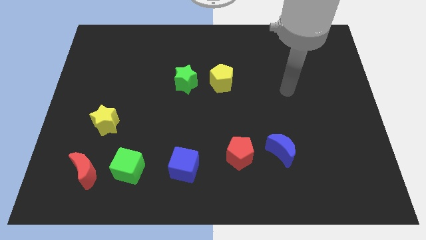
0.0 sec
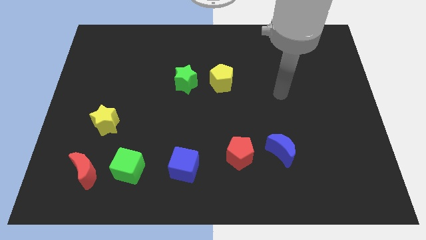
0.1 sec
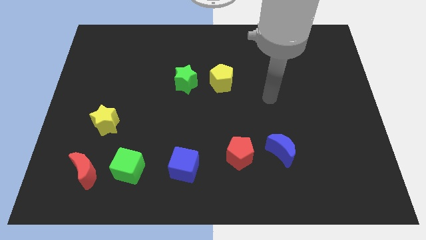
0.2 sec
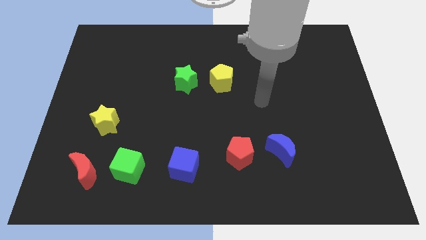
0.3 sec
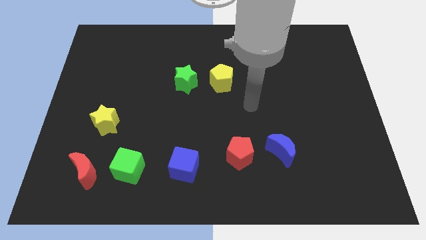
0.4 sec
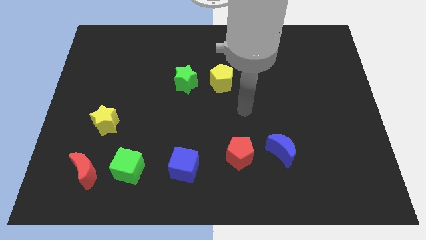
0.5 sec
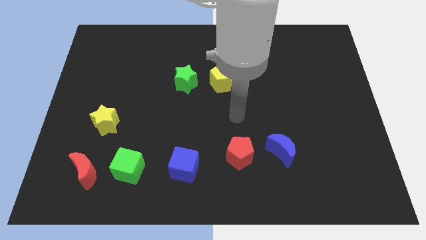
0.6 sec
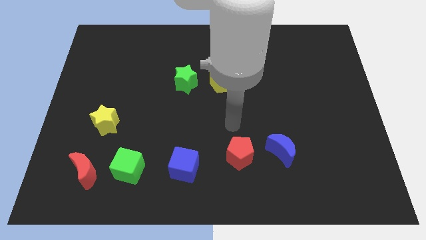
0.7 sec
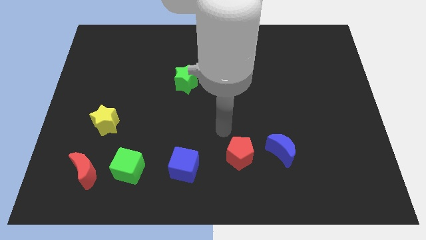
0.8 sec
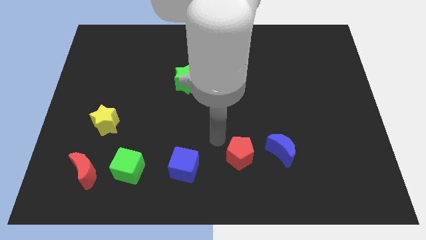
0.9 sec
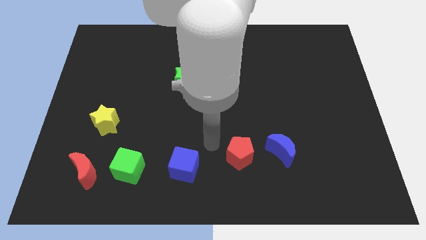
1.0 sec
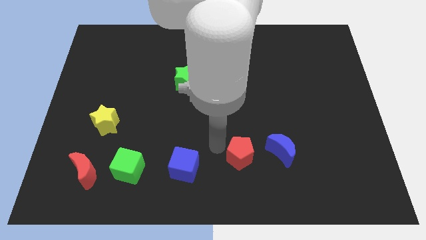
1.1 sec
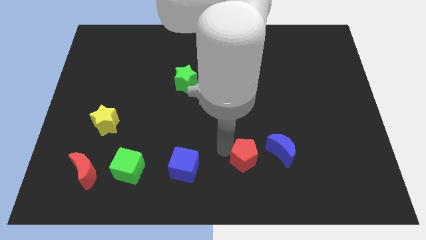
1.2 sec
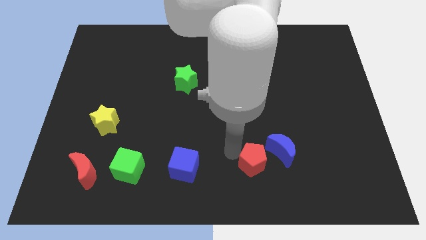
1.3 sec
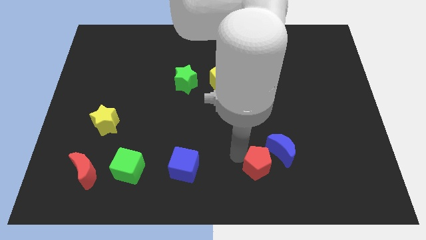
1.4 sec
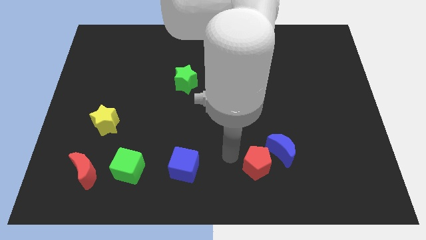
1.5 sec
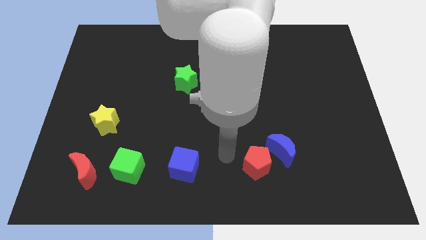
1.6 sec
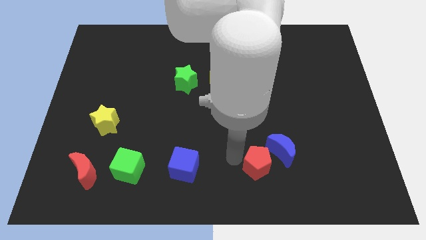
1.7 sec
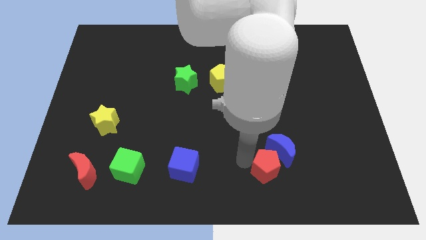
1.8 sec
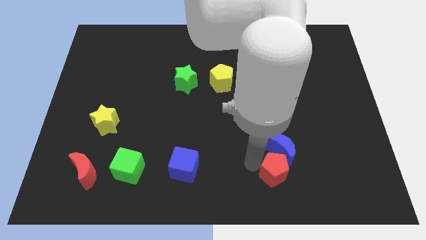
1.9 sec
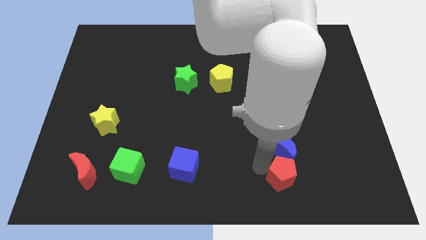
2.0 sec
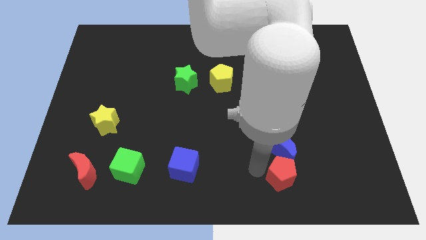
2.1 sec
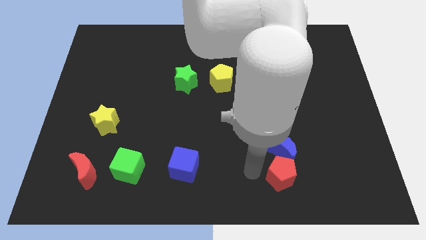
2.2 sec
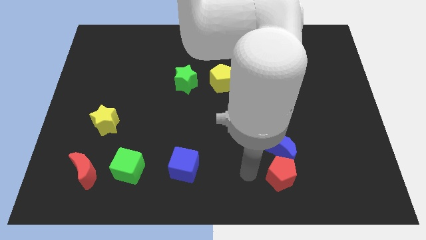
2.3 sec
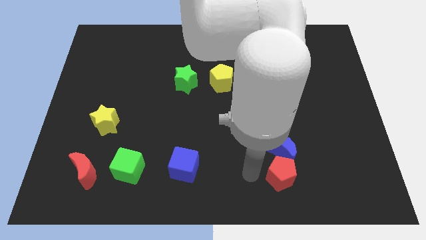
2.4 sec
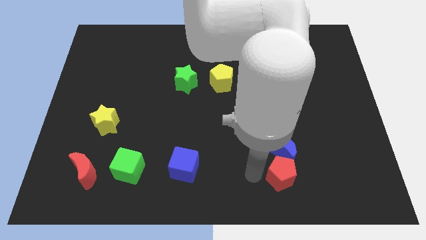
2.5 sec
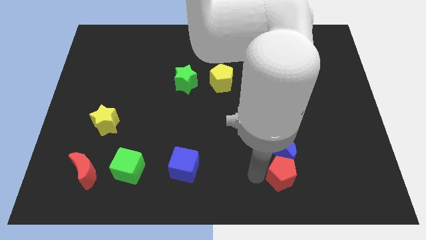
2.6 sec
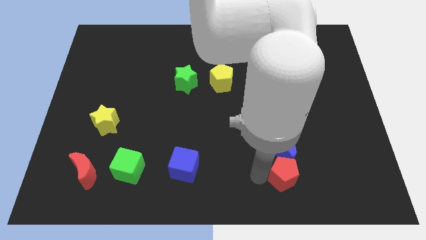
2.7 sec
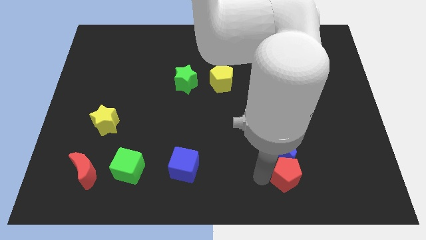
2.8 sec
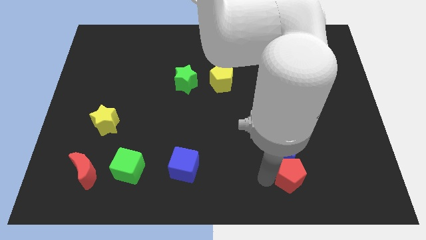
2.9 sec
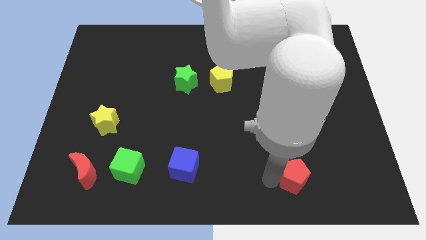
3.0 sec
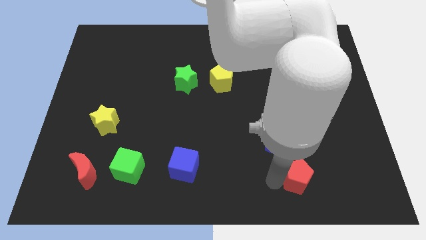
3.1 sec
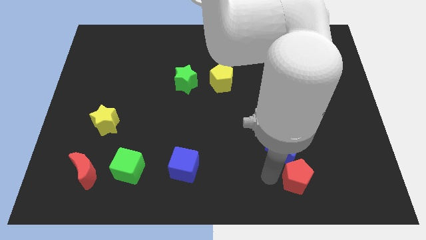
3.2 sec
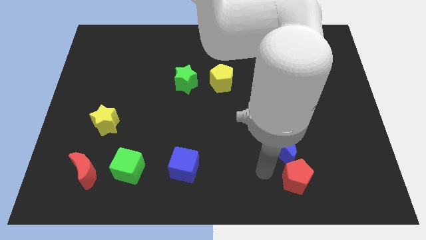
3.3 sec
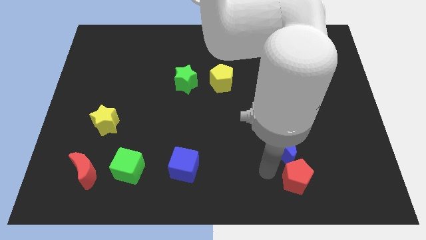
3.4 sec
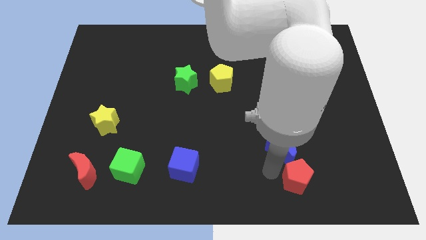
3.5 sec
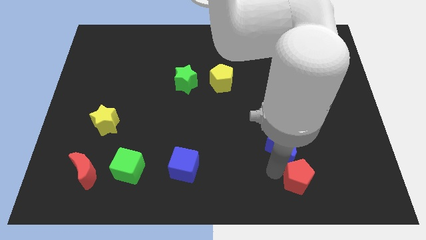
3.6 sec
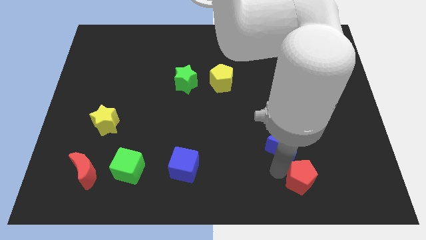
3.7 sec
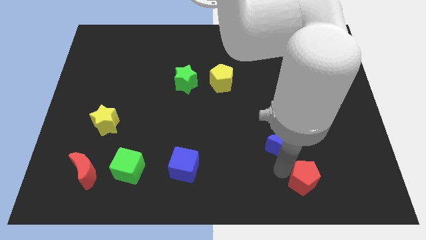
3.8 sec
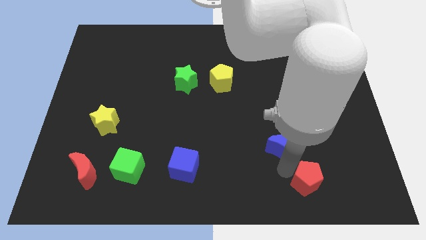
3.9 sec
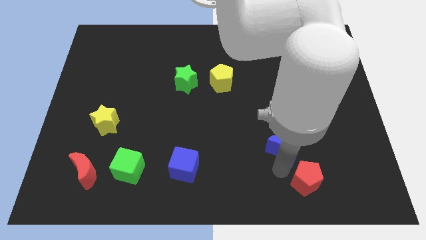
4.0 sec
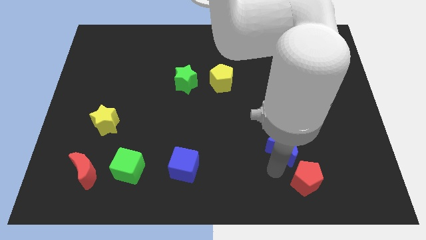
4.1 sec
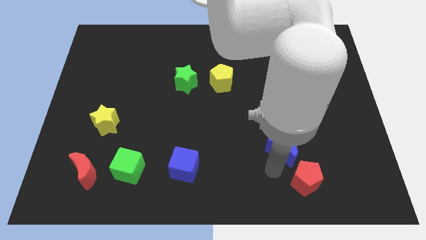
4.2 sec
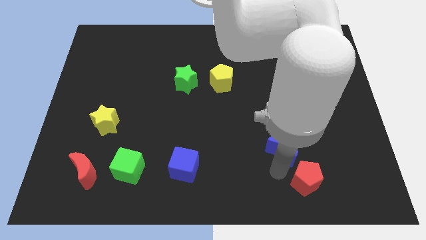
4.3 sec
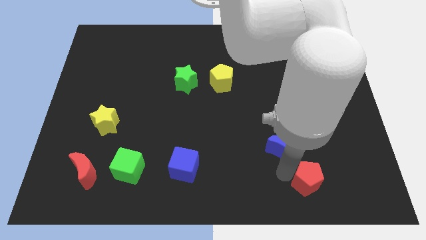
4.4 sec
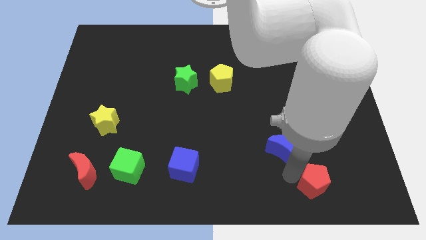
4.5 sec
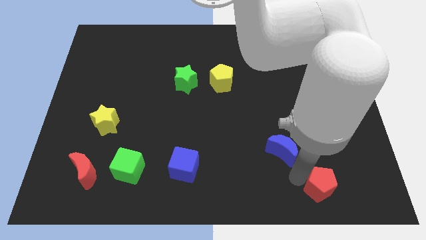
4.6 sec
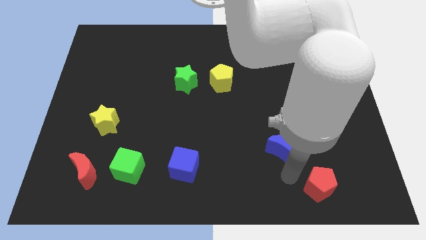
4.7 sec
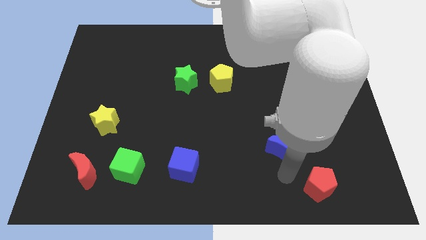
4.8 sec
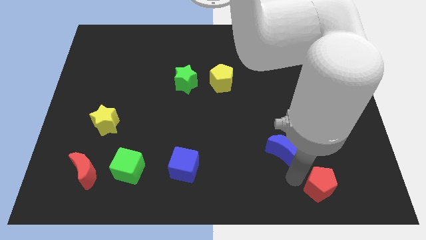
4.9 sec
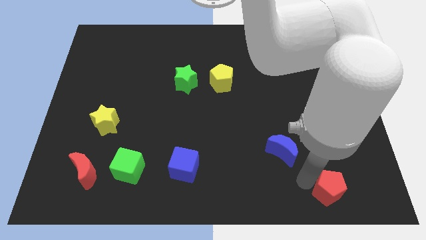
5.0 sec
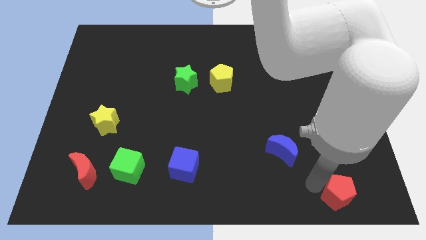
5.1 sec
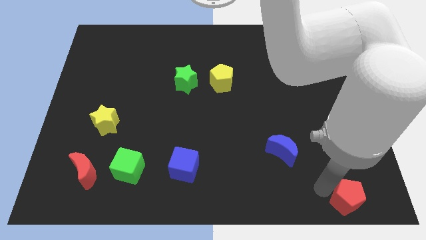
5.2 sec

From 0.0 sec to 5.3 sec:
move the red pentagon to the bottom right

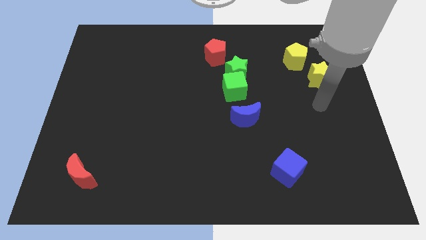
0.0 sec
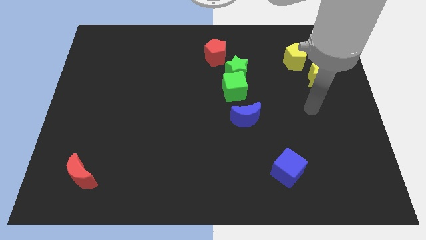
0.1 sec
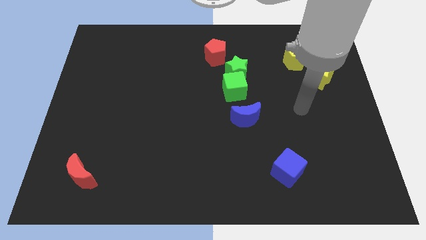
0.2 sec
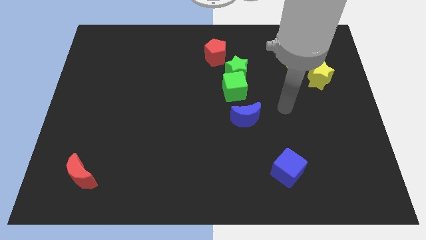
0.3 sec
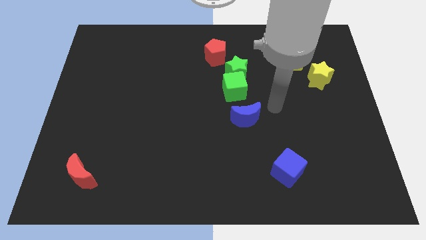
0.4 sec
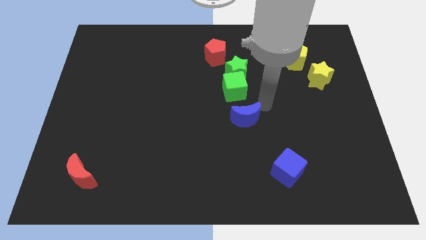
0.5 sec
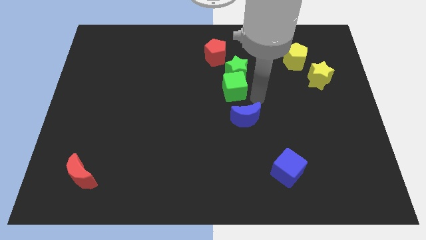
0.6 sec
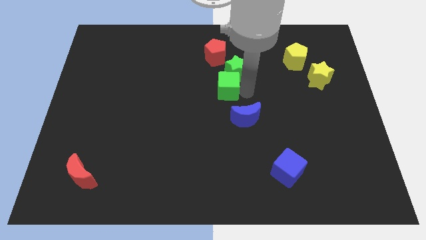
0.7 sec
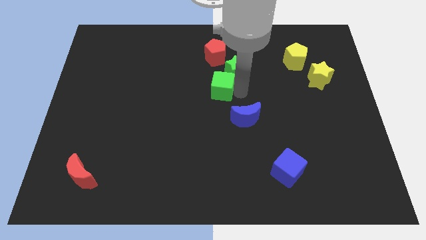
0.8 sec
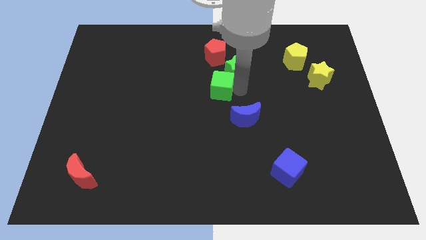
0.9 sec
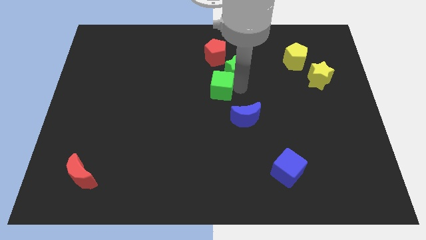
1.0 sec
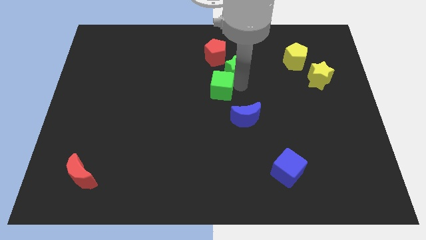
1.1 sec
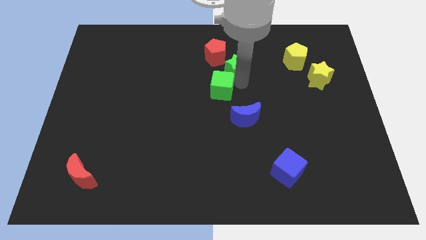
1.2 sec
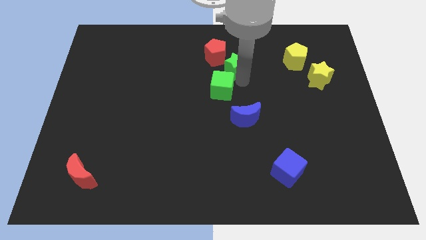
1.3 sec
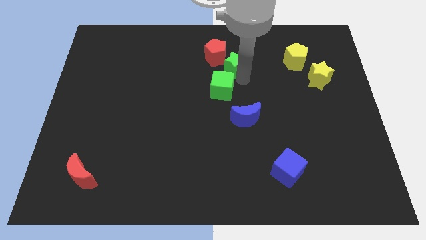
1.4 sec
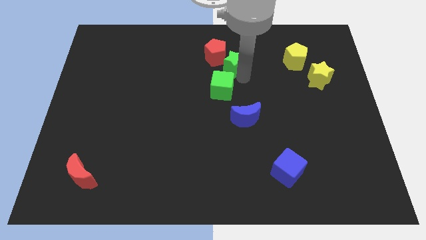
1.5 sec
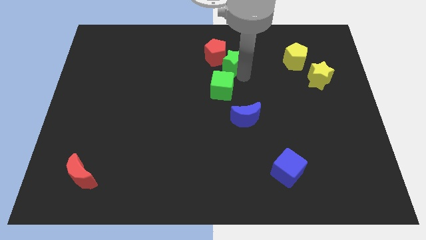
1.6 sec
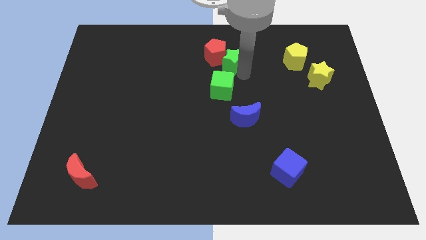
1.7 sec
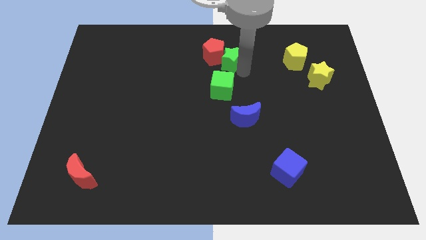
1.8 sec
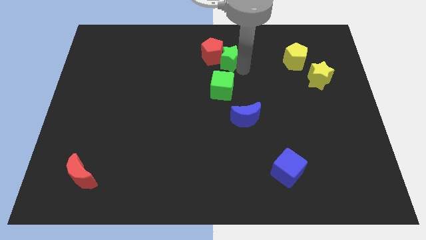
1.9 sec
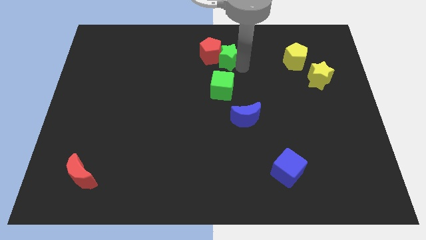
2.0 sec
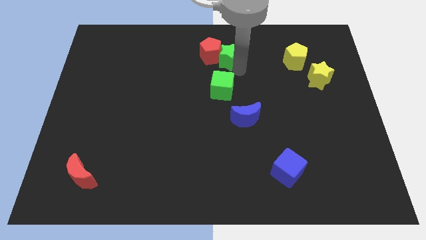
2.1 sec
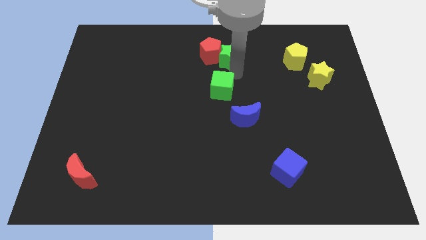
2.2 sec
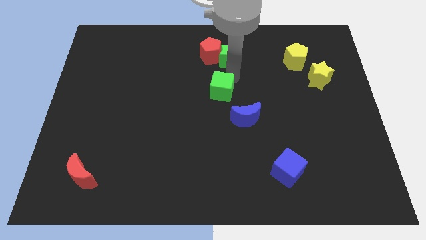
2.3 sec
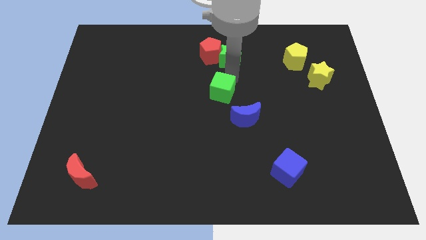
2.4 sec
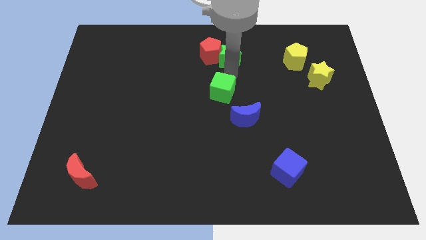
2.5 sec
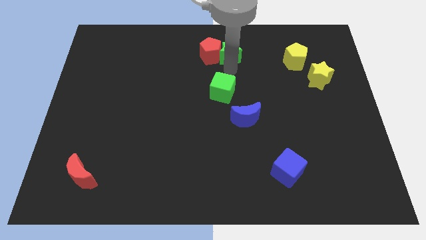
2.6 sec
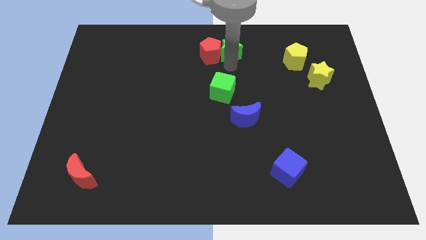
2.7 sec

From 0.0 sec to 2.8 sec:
put the green star to the top side

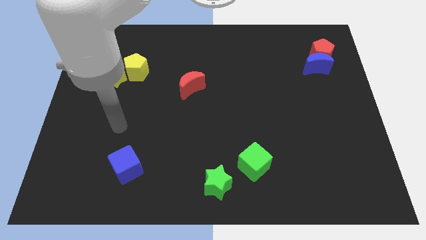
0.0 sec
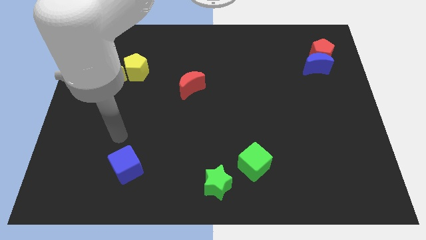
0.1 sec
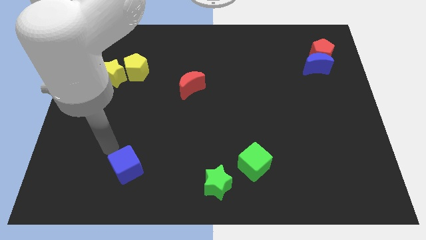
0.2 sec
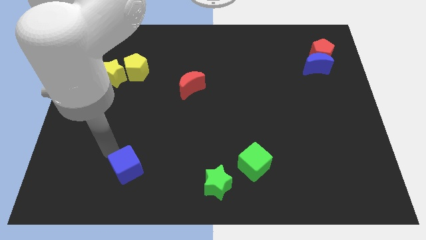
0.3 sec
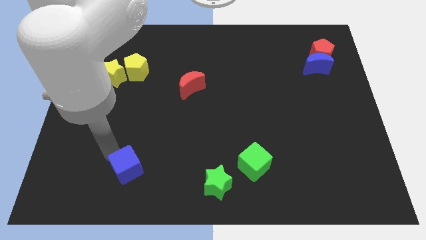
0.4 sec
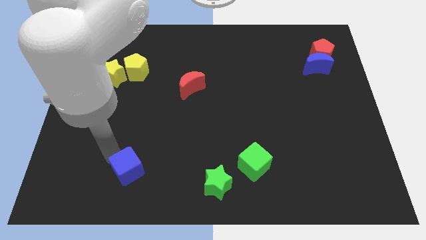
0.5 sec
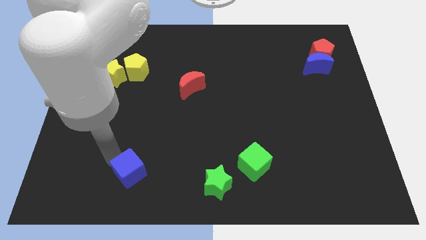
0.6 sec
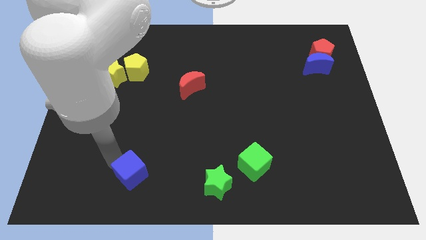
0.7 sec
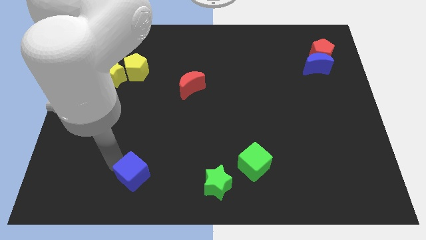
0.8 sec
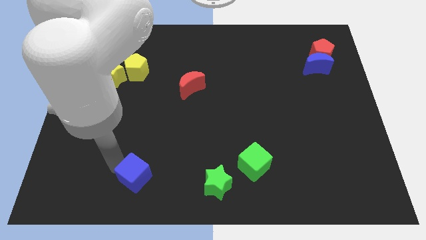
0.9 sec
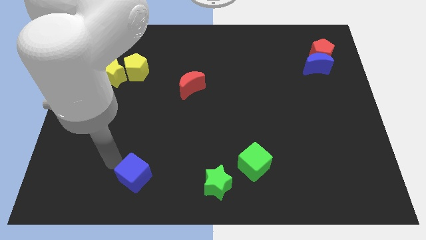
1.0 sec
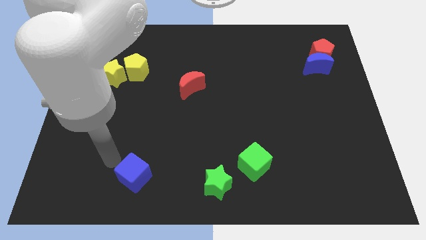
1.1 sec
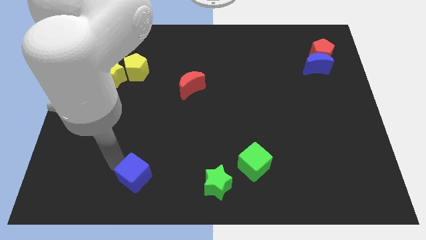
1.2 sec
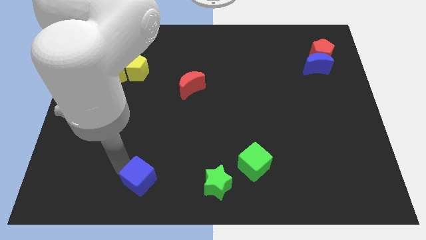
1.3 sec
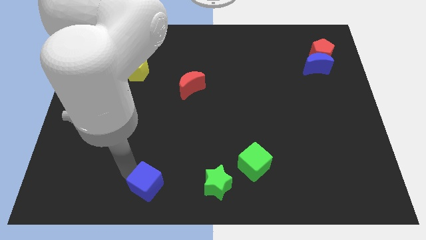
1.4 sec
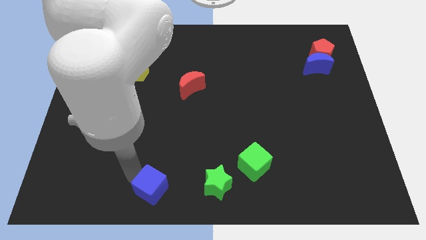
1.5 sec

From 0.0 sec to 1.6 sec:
push the blue cube to the bottom side
